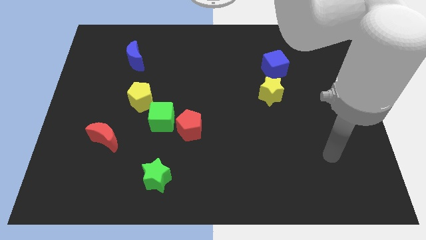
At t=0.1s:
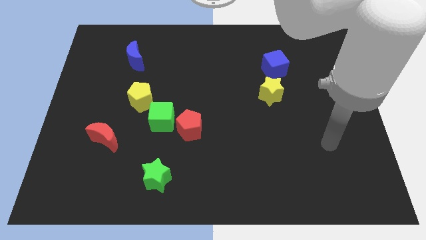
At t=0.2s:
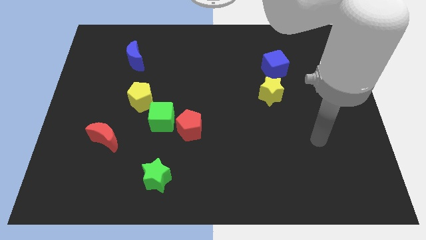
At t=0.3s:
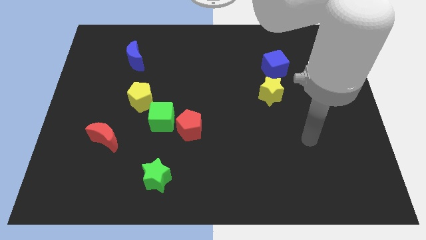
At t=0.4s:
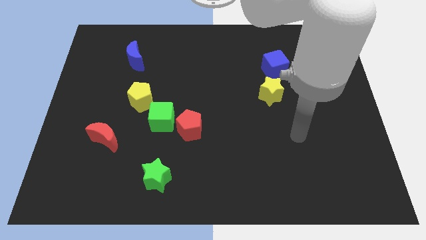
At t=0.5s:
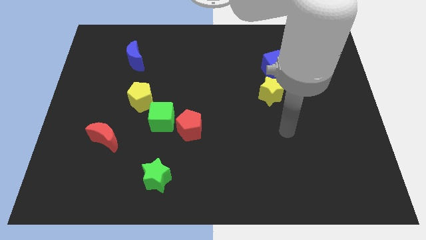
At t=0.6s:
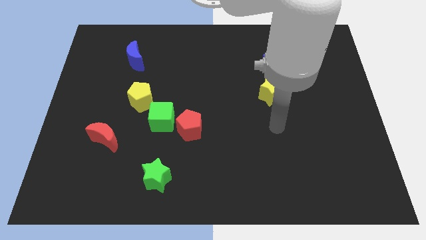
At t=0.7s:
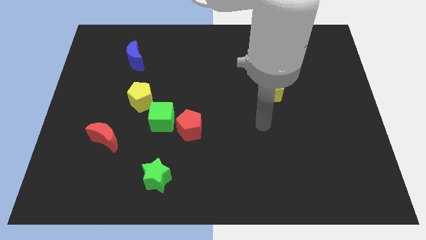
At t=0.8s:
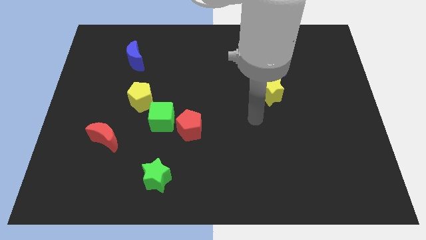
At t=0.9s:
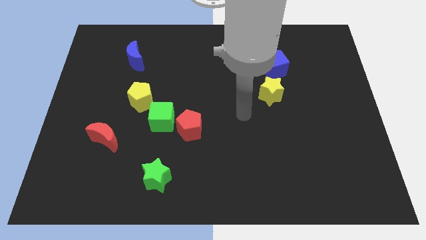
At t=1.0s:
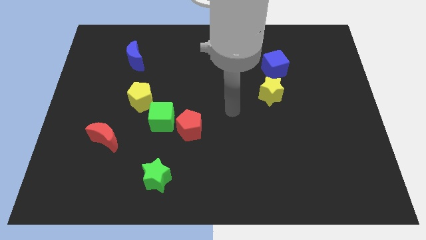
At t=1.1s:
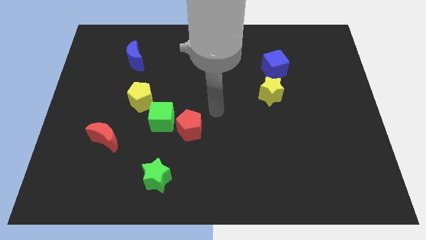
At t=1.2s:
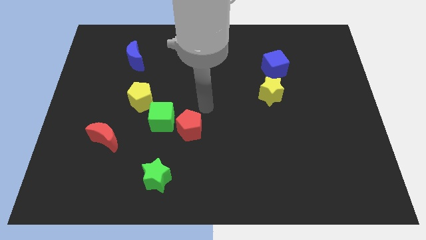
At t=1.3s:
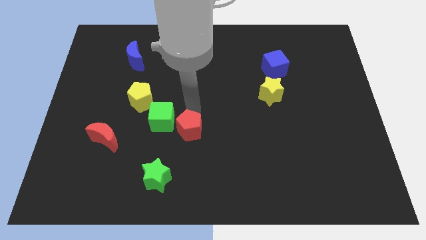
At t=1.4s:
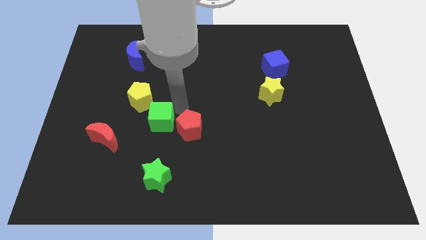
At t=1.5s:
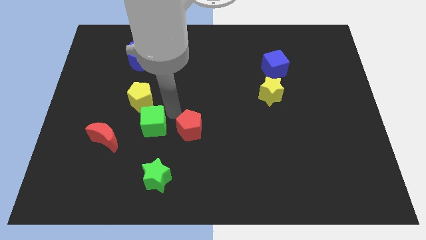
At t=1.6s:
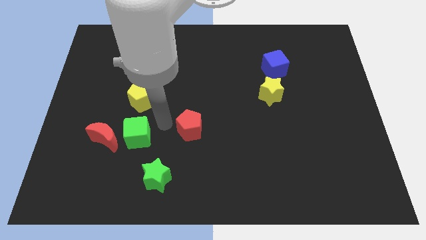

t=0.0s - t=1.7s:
move the red pentagon away from the green cube

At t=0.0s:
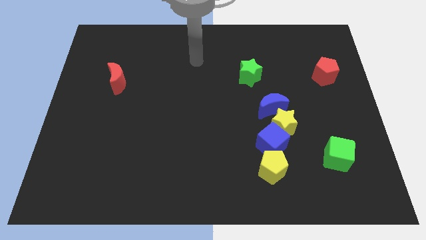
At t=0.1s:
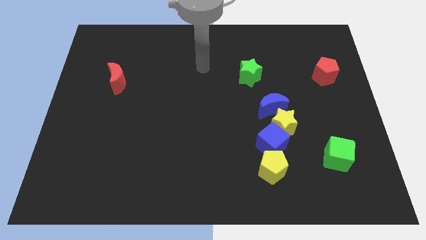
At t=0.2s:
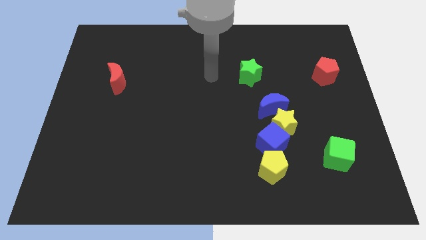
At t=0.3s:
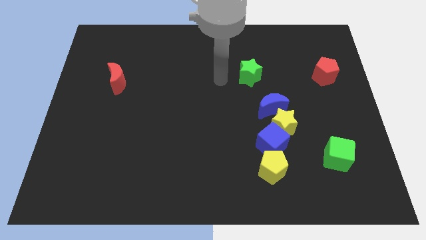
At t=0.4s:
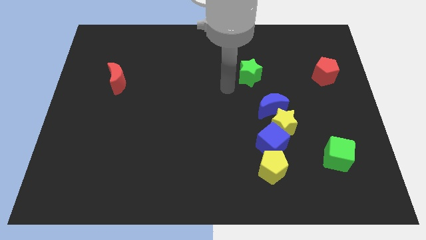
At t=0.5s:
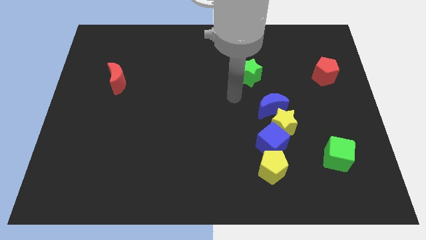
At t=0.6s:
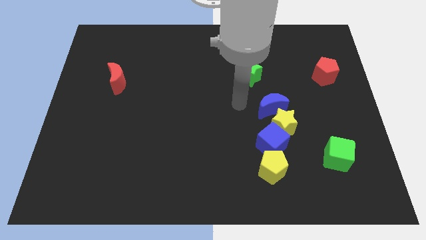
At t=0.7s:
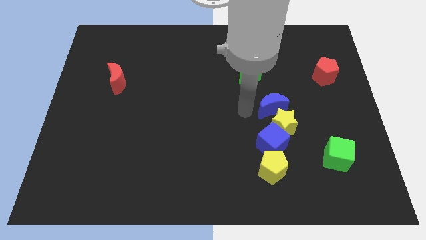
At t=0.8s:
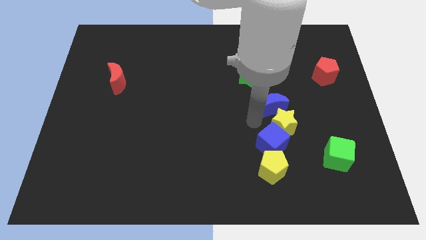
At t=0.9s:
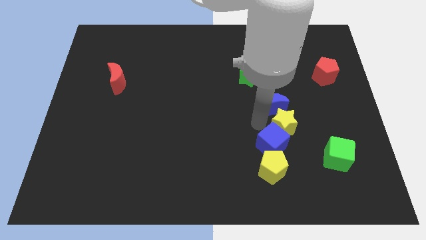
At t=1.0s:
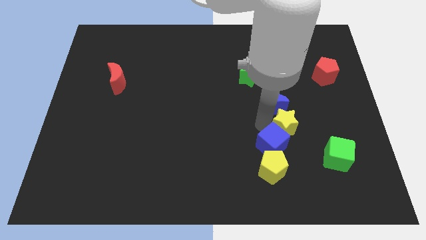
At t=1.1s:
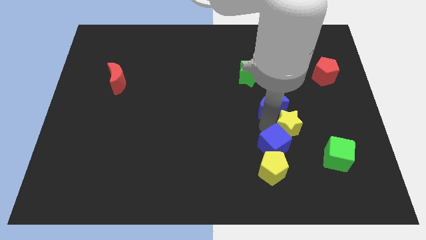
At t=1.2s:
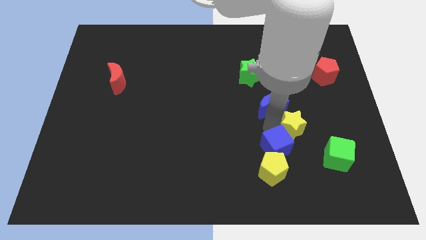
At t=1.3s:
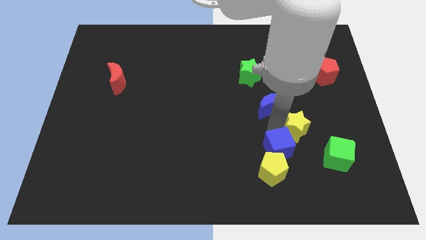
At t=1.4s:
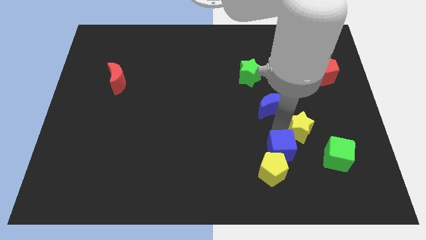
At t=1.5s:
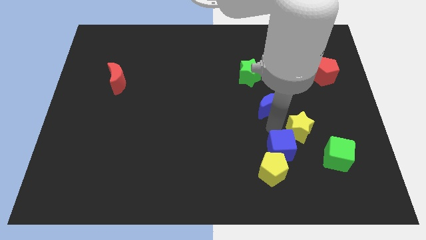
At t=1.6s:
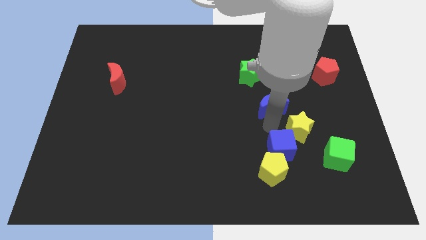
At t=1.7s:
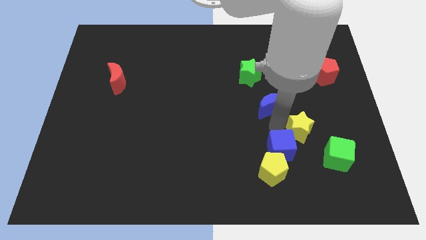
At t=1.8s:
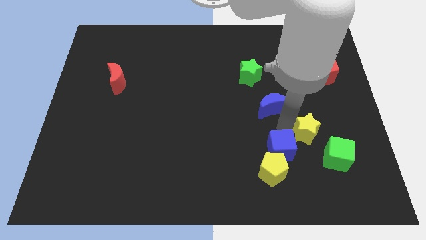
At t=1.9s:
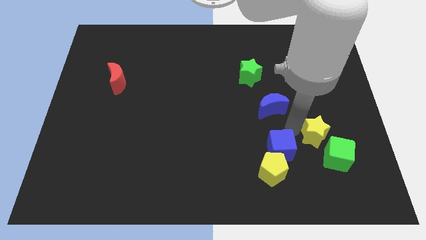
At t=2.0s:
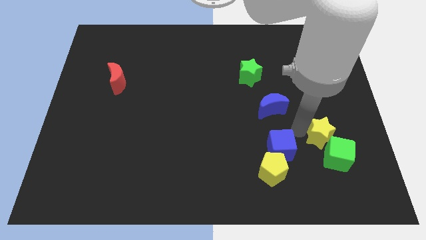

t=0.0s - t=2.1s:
pull the yellow star apart from the blue cube and blue moon

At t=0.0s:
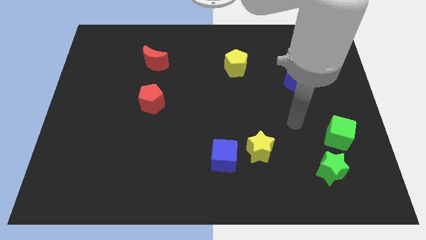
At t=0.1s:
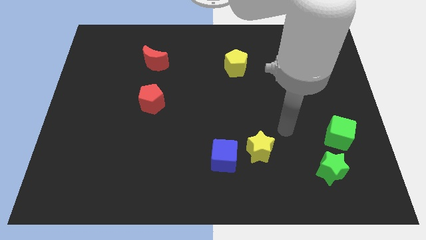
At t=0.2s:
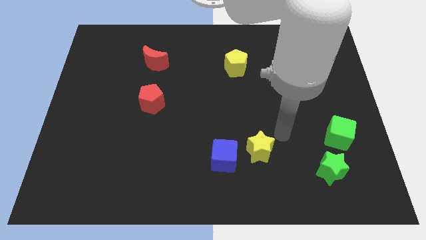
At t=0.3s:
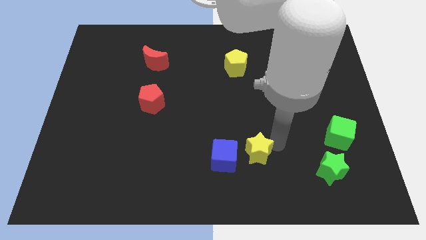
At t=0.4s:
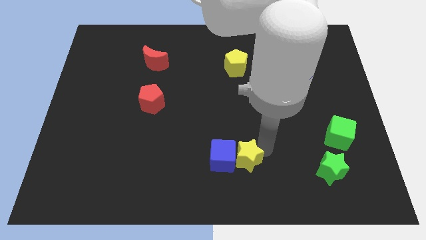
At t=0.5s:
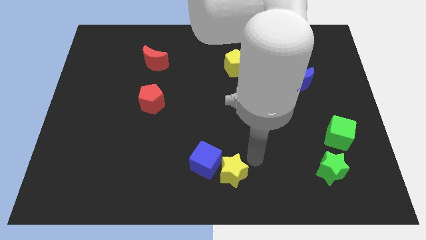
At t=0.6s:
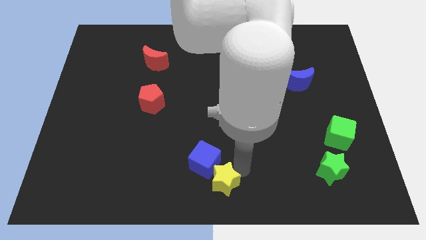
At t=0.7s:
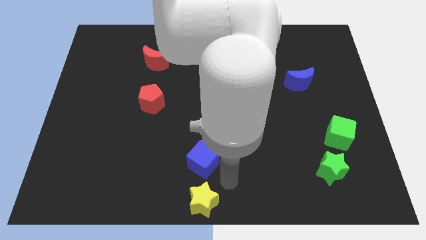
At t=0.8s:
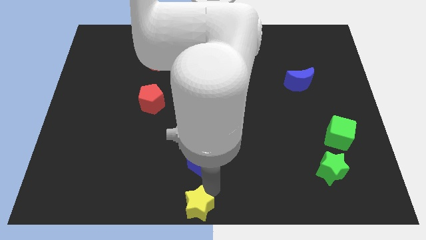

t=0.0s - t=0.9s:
move the blue cube away from the yellow star

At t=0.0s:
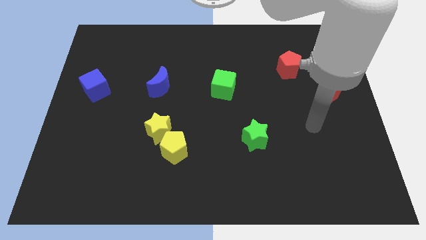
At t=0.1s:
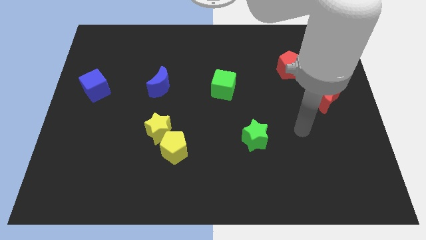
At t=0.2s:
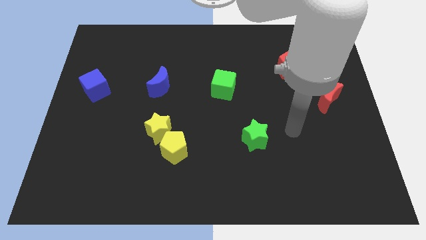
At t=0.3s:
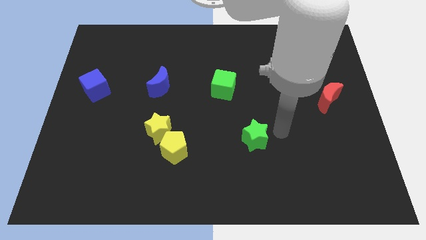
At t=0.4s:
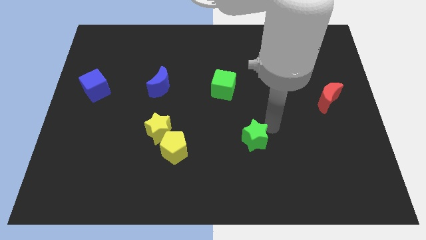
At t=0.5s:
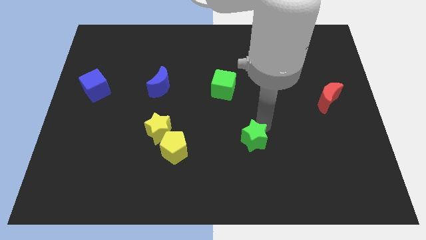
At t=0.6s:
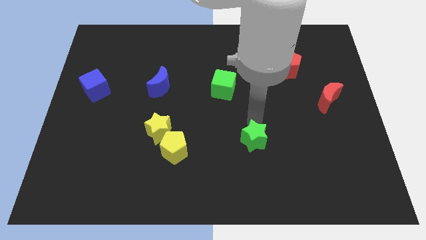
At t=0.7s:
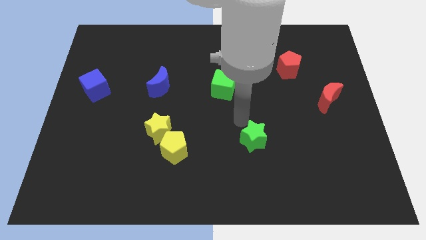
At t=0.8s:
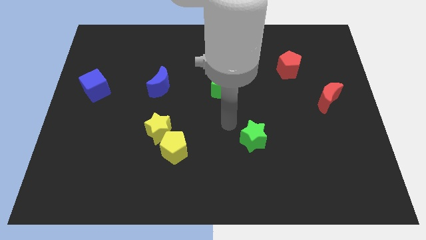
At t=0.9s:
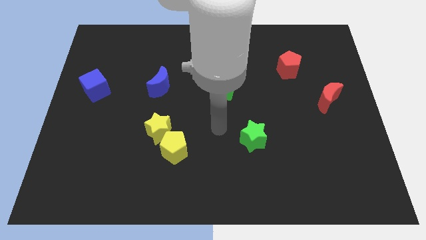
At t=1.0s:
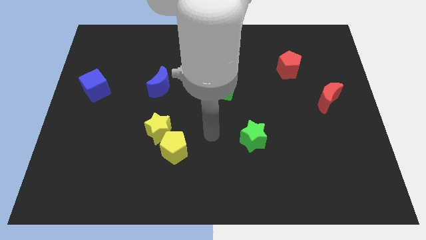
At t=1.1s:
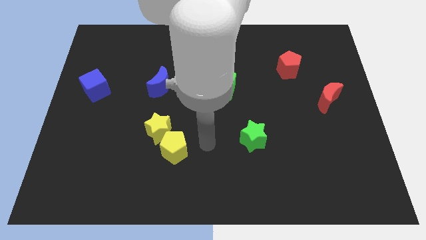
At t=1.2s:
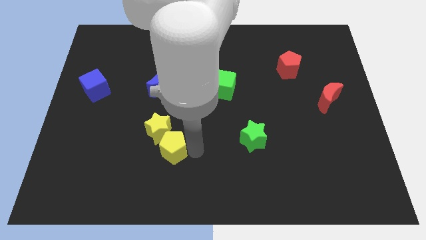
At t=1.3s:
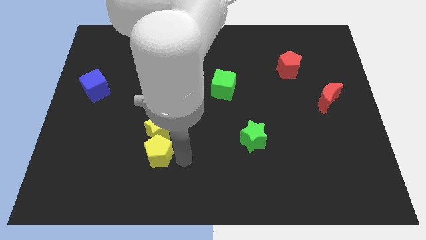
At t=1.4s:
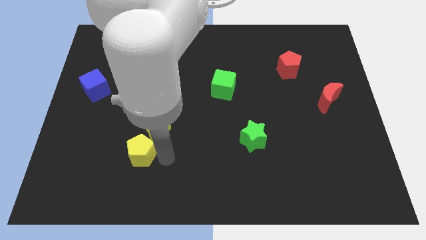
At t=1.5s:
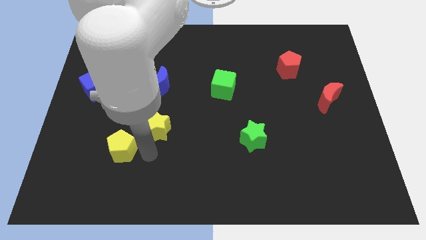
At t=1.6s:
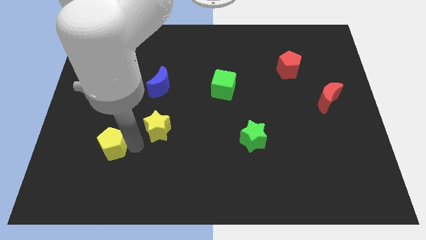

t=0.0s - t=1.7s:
separate the yellow star from the yellow pentagon

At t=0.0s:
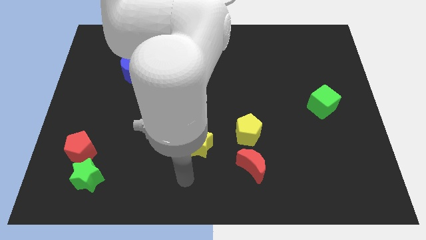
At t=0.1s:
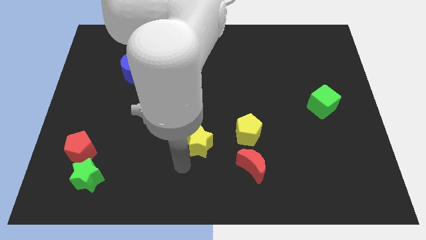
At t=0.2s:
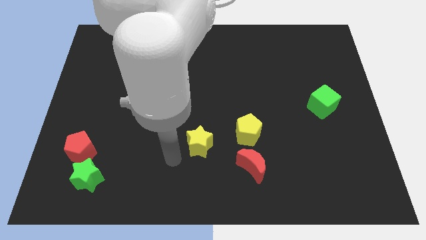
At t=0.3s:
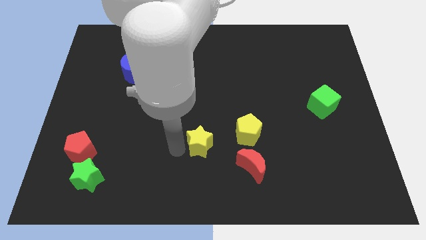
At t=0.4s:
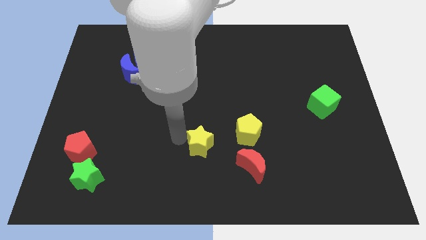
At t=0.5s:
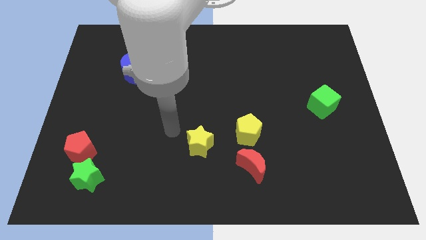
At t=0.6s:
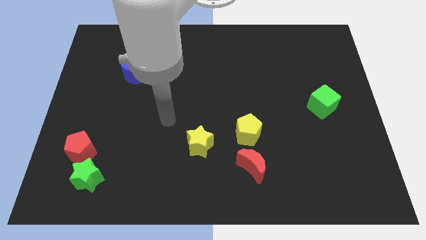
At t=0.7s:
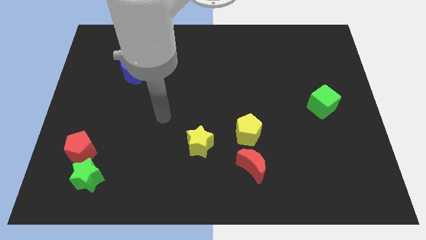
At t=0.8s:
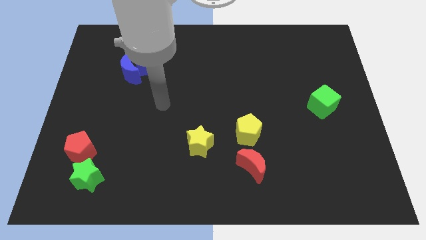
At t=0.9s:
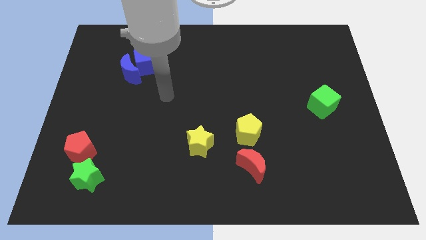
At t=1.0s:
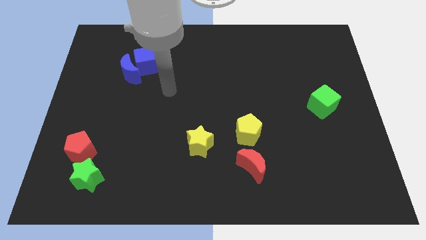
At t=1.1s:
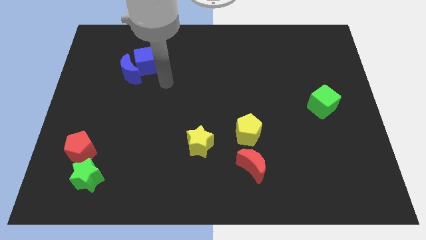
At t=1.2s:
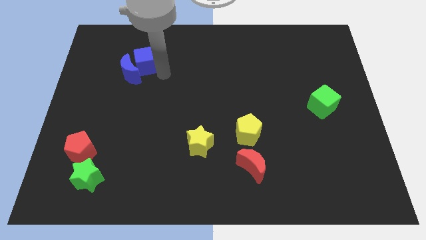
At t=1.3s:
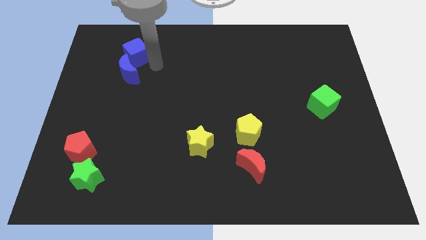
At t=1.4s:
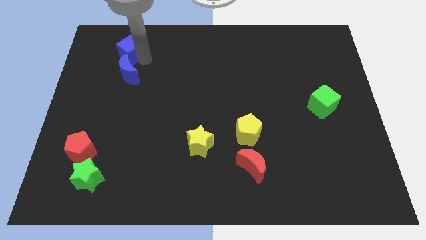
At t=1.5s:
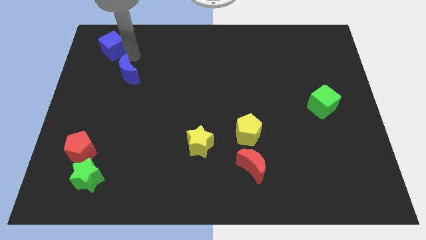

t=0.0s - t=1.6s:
separate the blue moon from the blue cube

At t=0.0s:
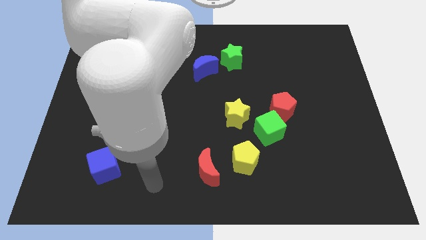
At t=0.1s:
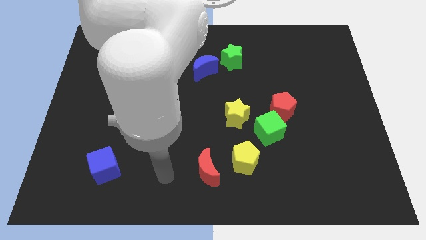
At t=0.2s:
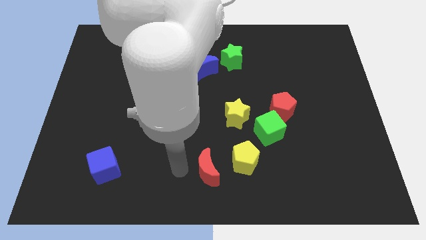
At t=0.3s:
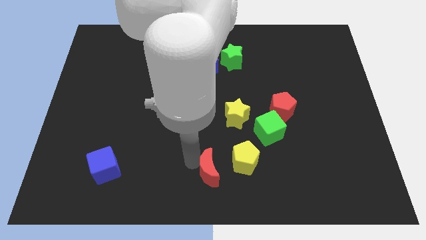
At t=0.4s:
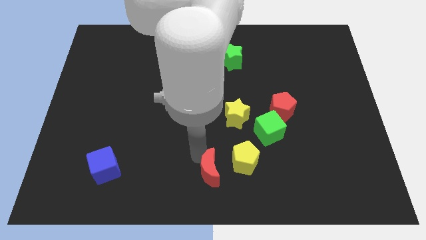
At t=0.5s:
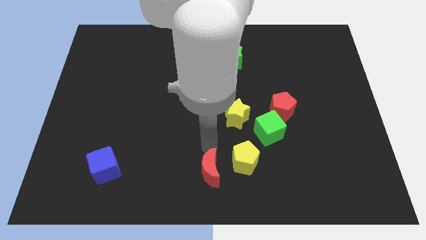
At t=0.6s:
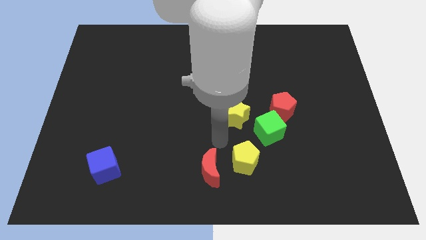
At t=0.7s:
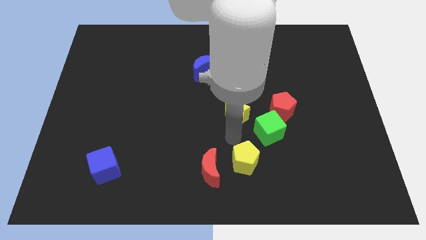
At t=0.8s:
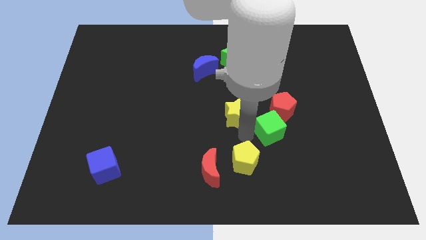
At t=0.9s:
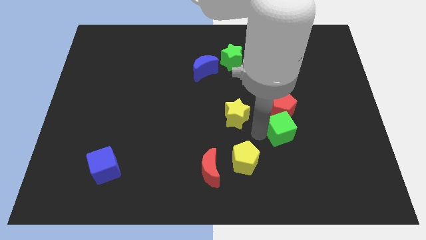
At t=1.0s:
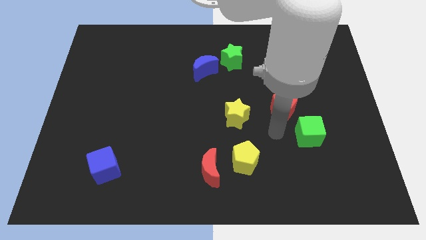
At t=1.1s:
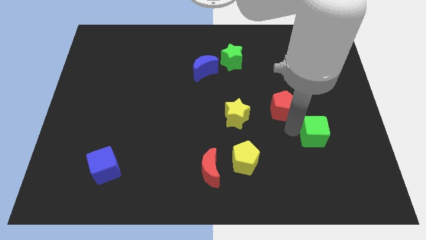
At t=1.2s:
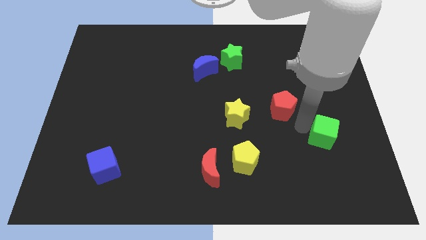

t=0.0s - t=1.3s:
separate the red pentagon from the green cube
